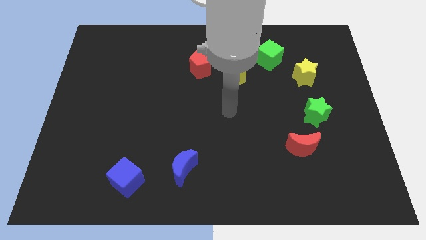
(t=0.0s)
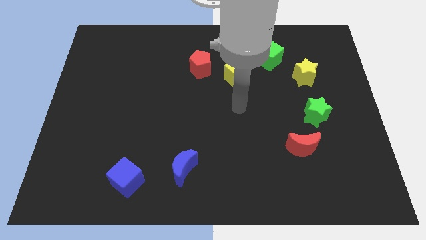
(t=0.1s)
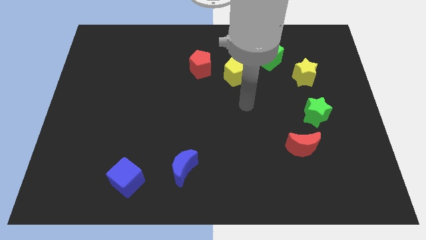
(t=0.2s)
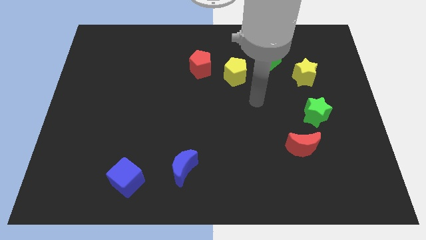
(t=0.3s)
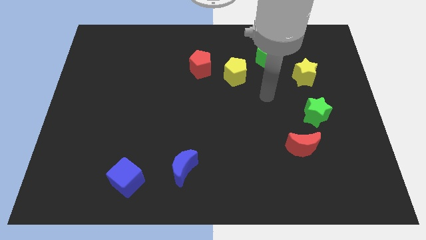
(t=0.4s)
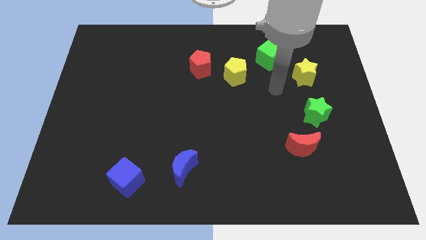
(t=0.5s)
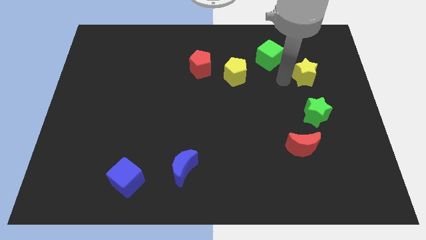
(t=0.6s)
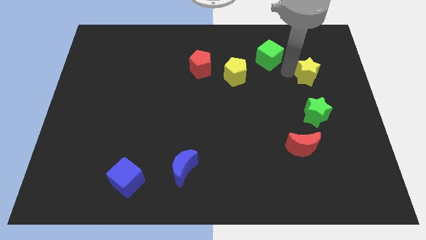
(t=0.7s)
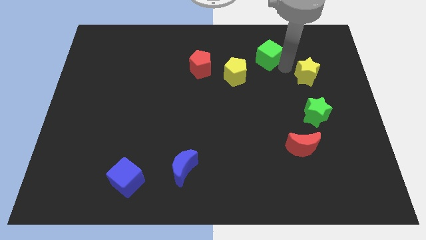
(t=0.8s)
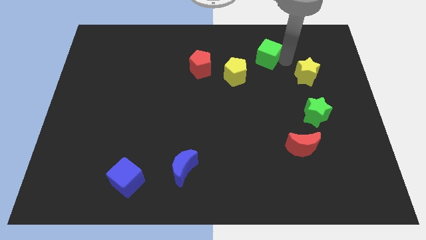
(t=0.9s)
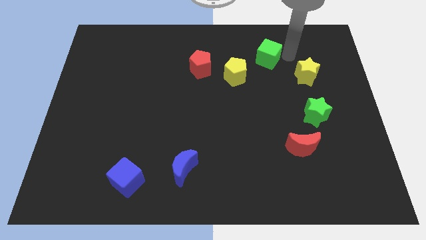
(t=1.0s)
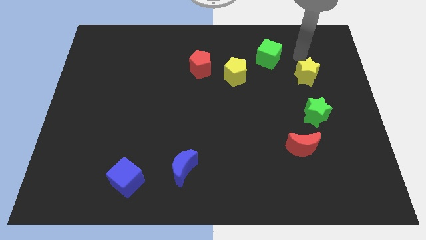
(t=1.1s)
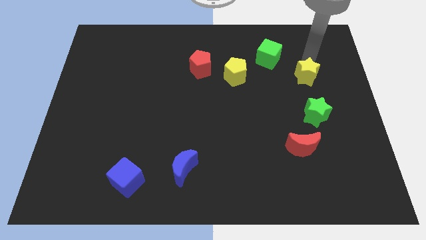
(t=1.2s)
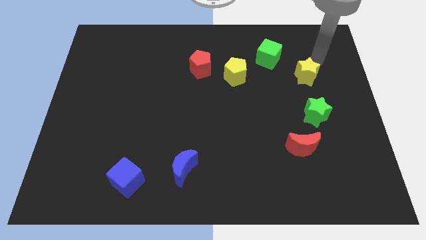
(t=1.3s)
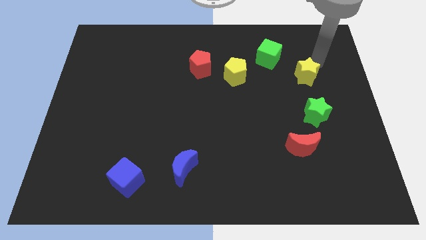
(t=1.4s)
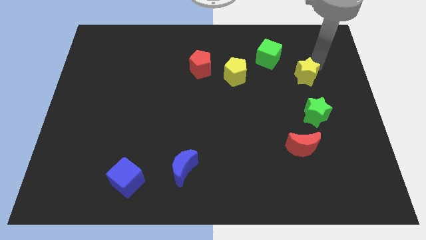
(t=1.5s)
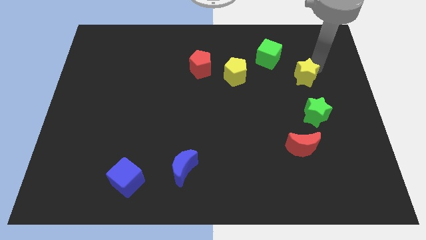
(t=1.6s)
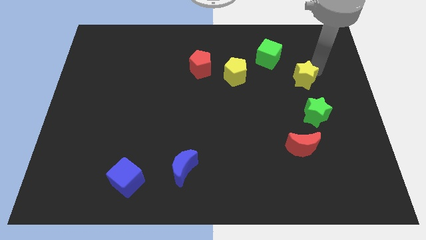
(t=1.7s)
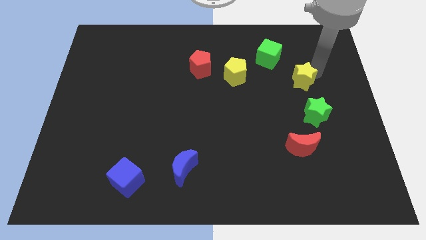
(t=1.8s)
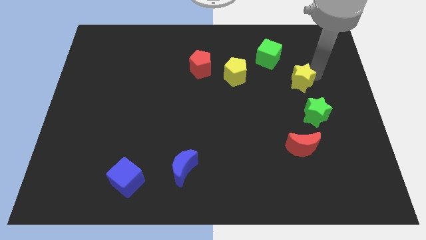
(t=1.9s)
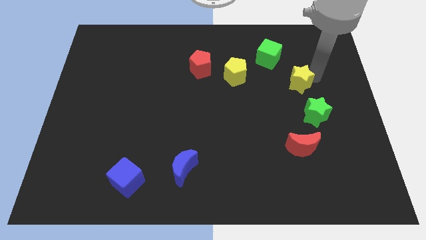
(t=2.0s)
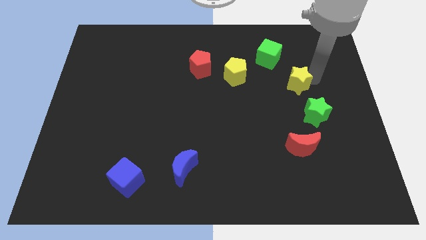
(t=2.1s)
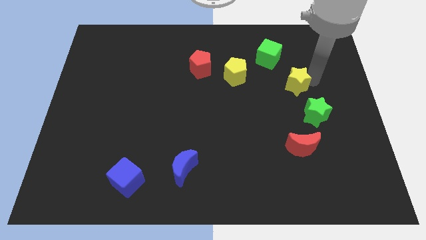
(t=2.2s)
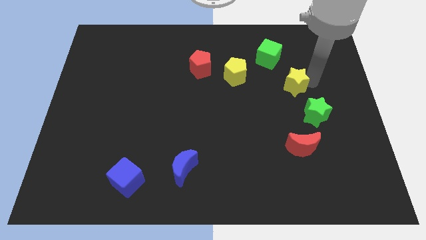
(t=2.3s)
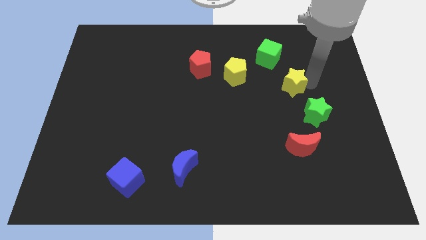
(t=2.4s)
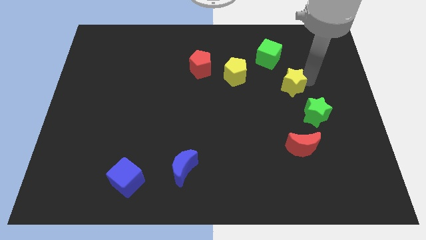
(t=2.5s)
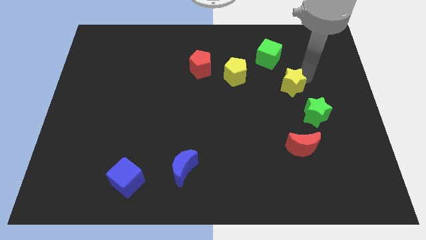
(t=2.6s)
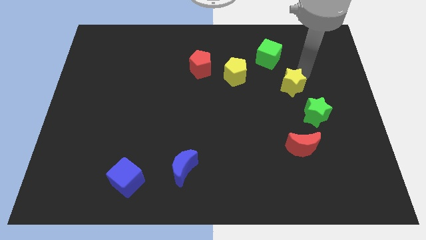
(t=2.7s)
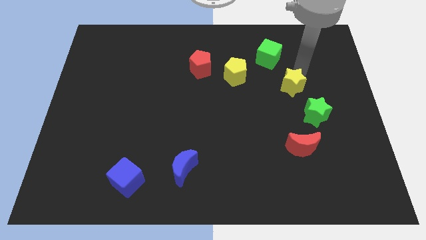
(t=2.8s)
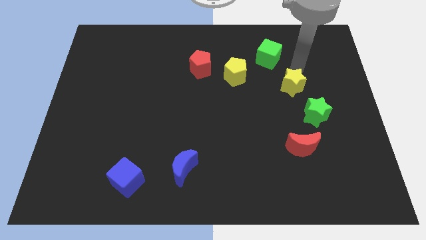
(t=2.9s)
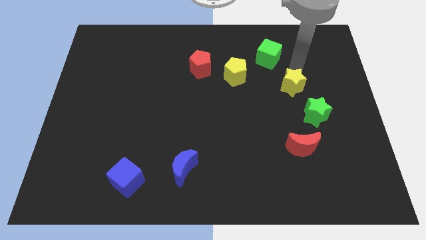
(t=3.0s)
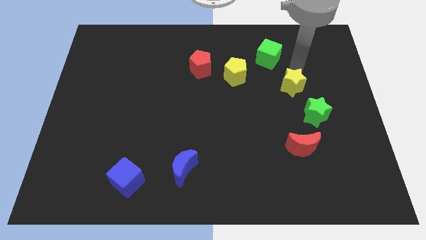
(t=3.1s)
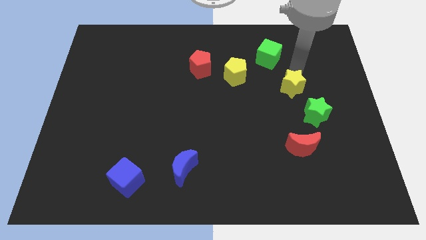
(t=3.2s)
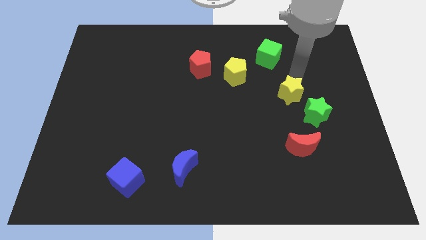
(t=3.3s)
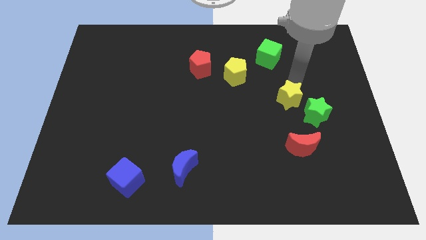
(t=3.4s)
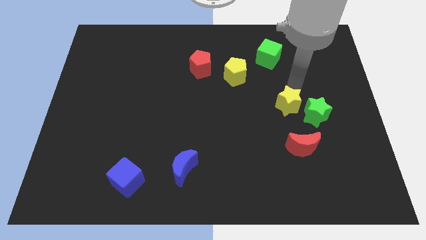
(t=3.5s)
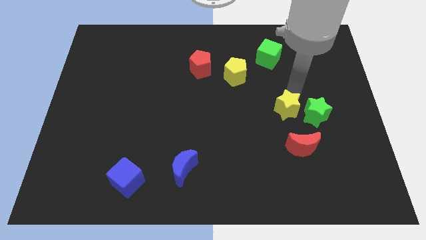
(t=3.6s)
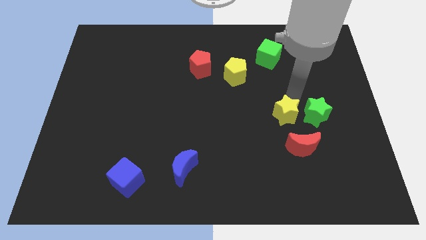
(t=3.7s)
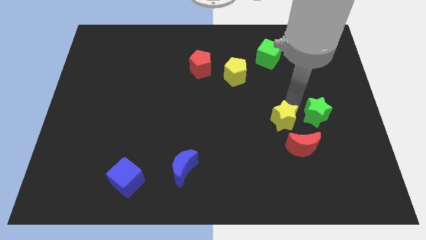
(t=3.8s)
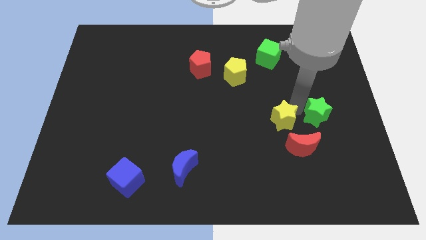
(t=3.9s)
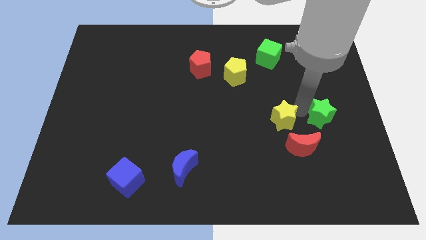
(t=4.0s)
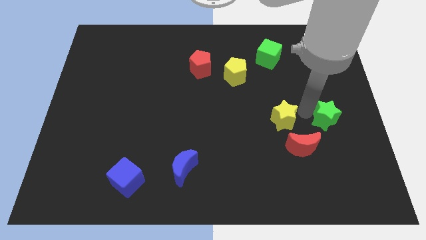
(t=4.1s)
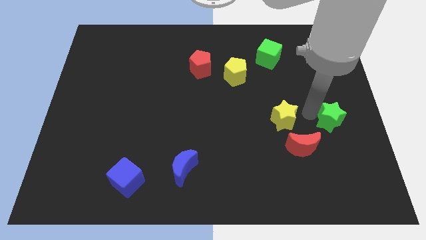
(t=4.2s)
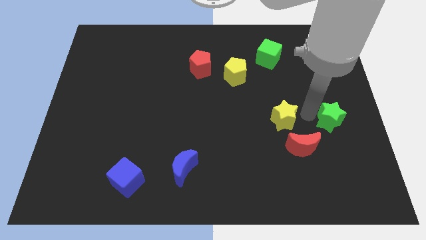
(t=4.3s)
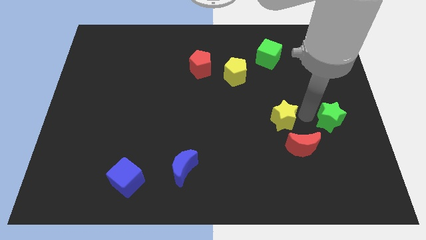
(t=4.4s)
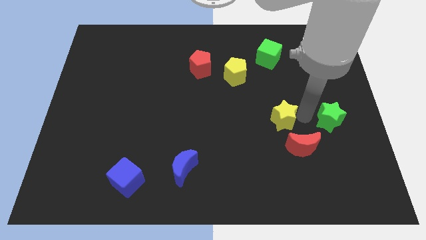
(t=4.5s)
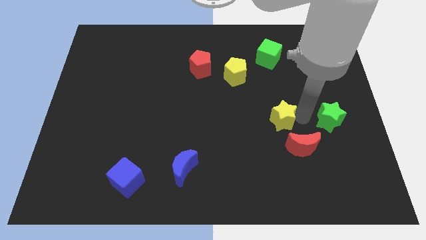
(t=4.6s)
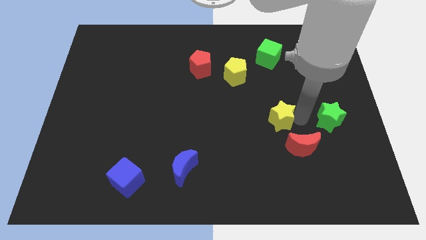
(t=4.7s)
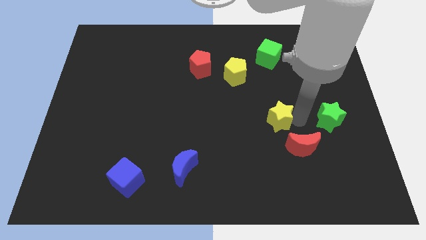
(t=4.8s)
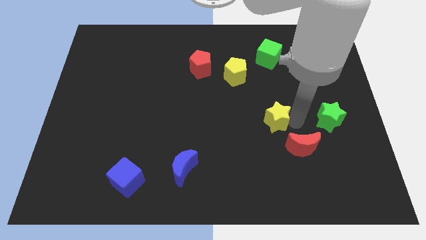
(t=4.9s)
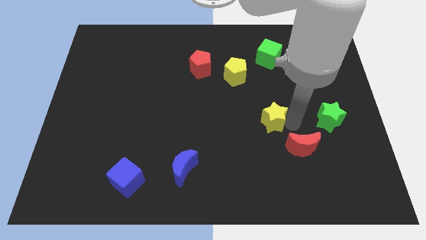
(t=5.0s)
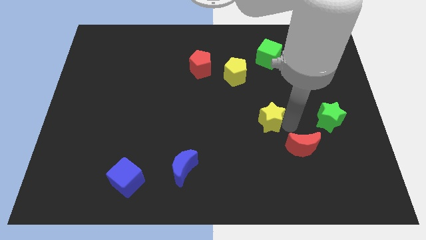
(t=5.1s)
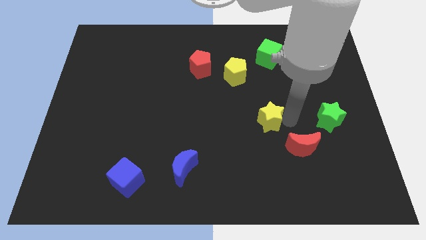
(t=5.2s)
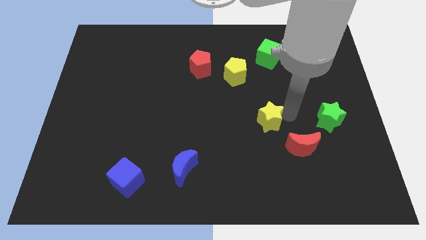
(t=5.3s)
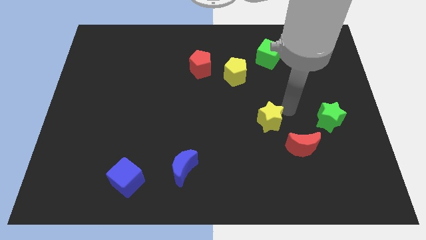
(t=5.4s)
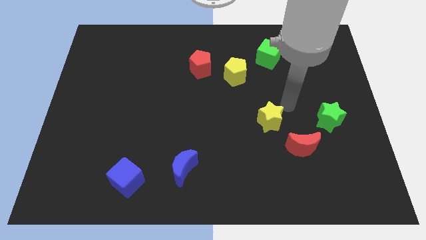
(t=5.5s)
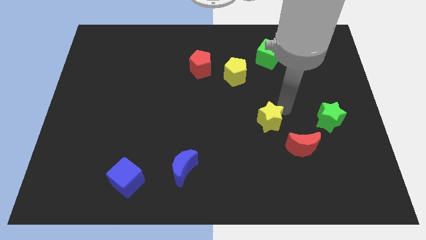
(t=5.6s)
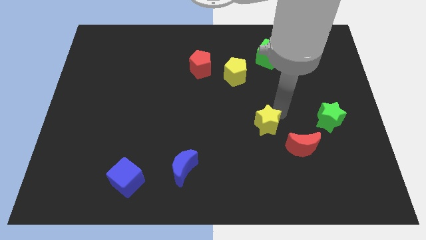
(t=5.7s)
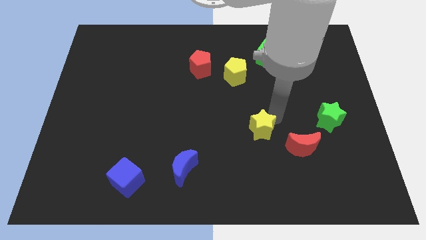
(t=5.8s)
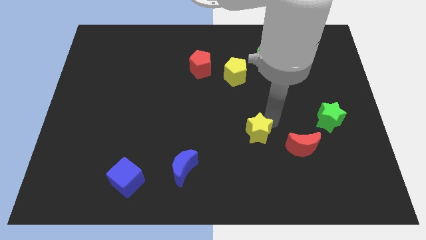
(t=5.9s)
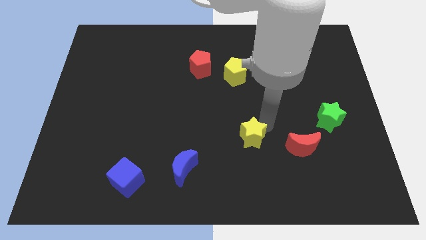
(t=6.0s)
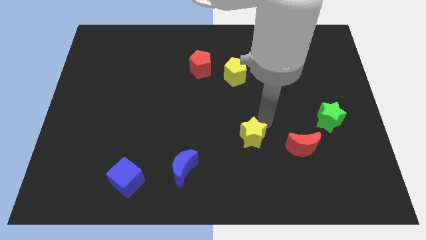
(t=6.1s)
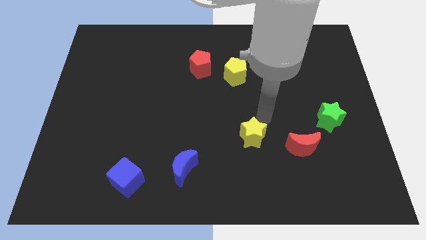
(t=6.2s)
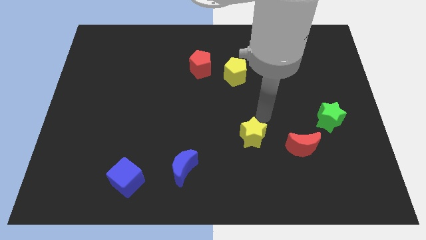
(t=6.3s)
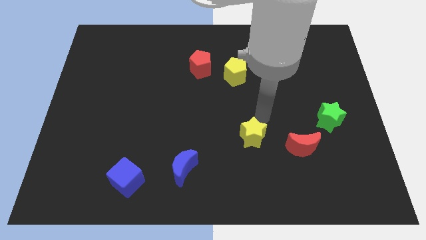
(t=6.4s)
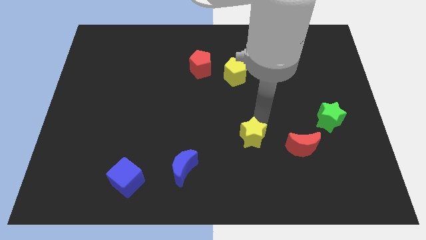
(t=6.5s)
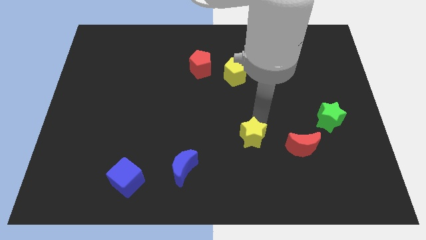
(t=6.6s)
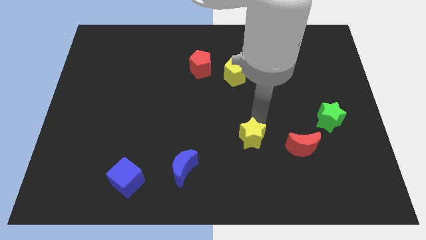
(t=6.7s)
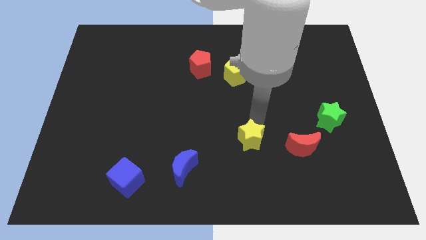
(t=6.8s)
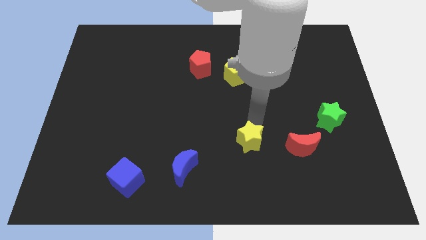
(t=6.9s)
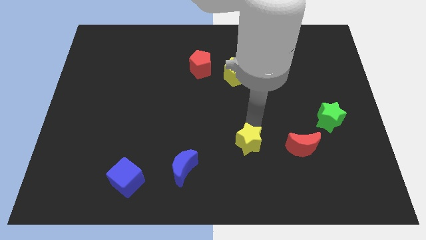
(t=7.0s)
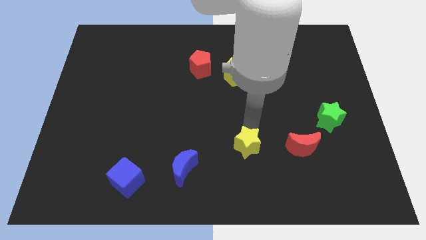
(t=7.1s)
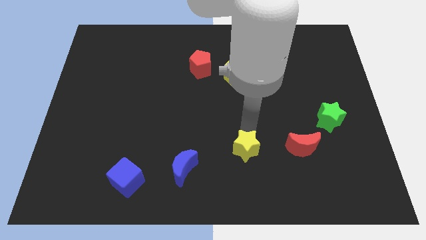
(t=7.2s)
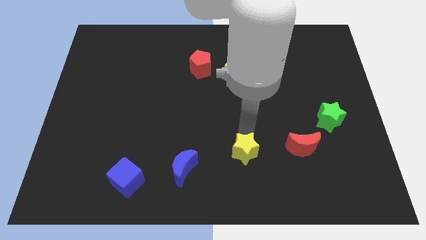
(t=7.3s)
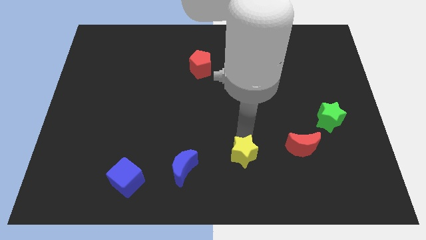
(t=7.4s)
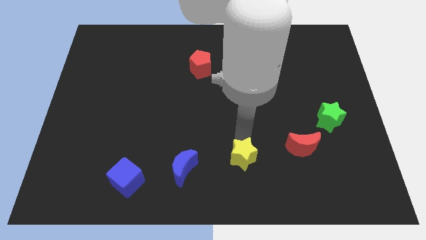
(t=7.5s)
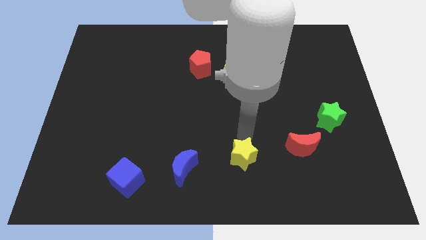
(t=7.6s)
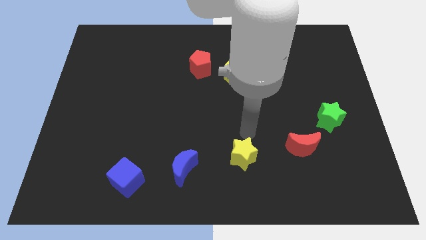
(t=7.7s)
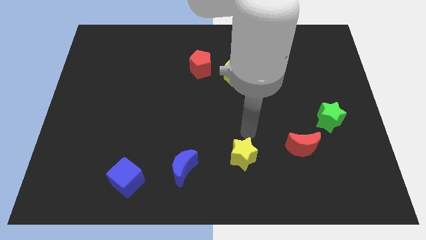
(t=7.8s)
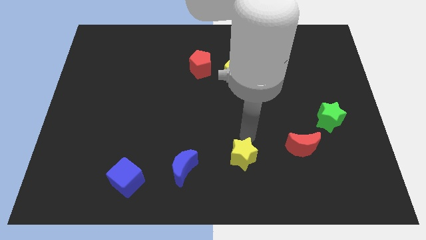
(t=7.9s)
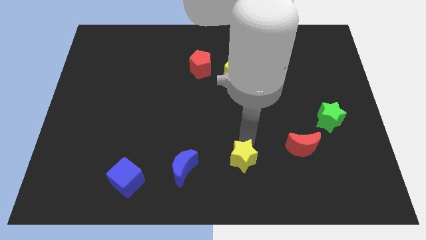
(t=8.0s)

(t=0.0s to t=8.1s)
slide the yellow star to the bottom
